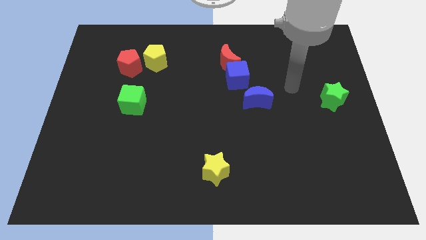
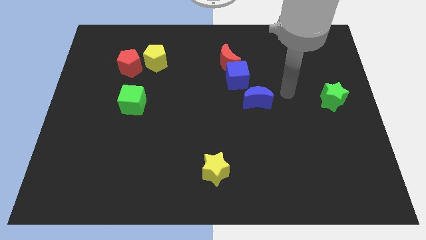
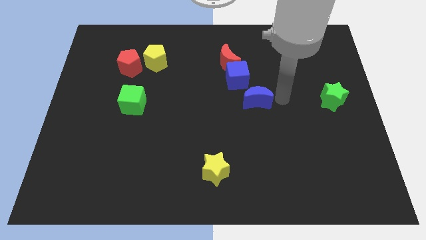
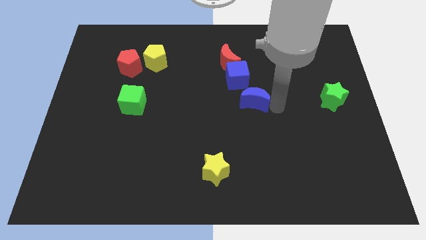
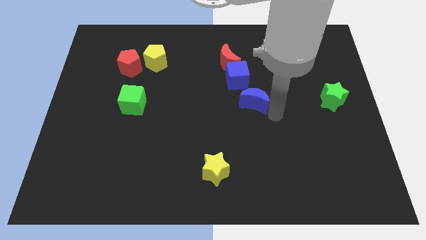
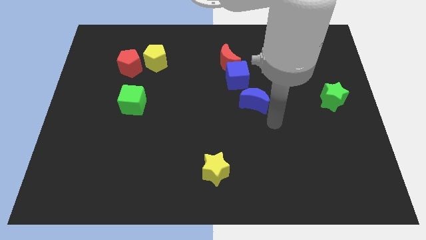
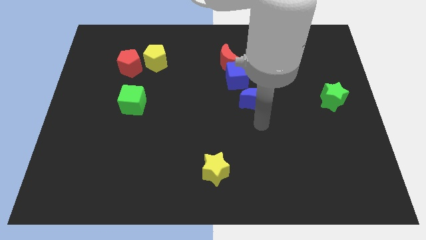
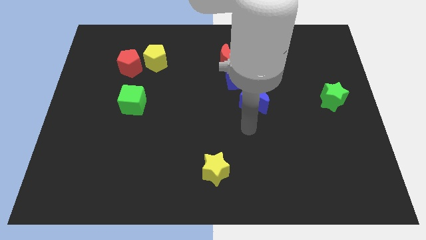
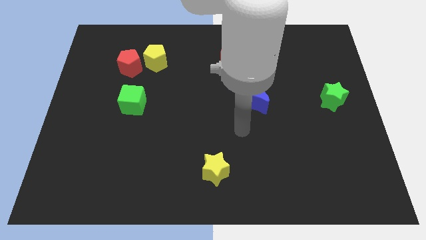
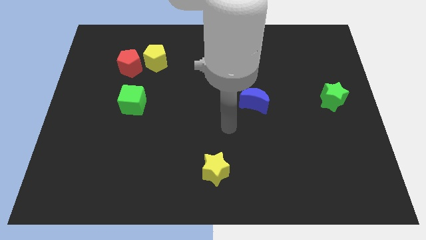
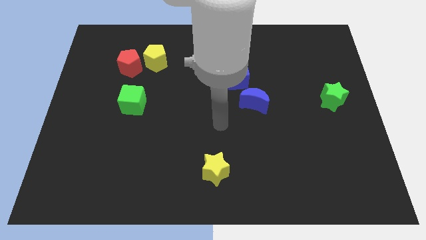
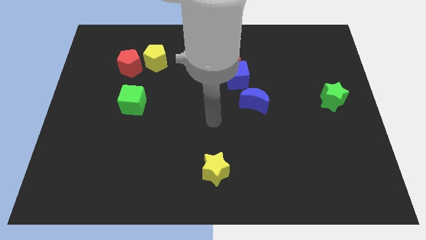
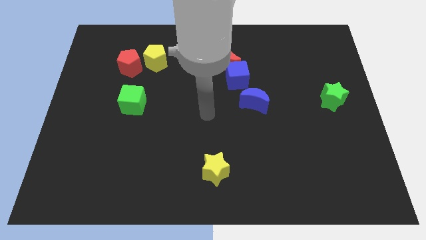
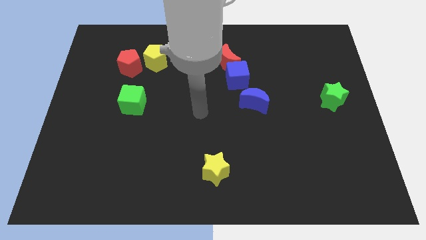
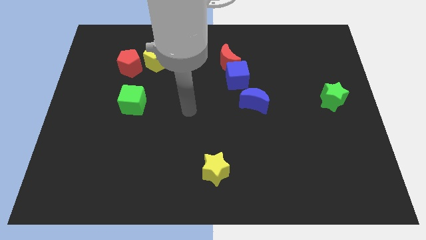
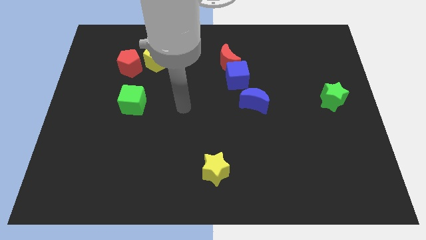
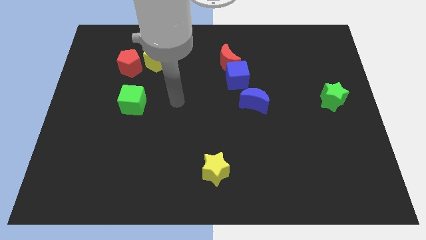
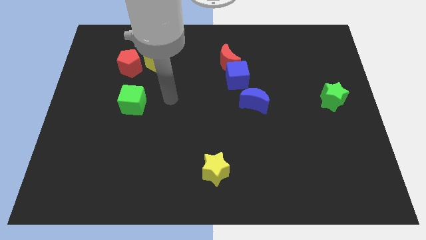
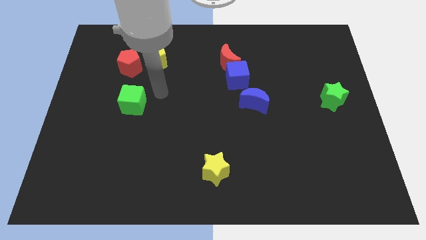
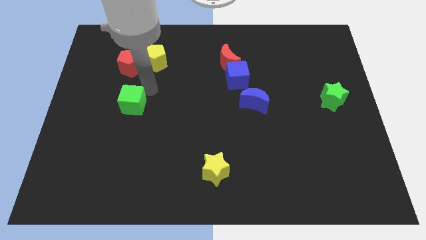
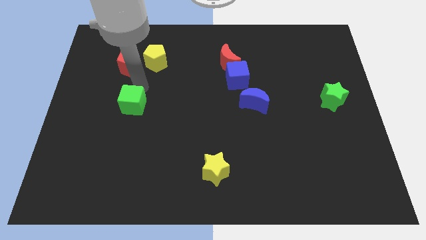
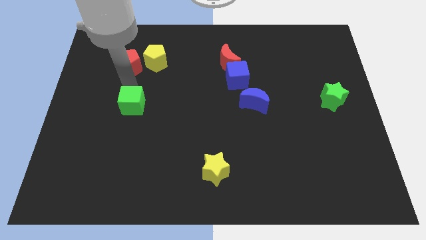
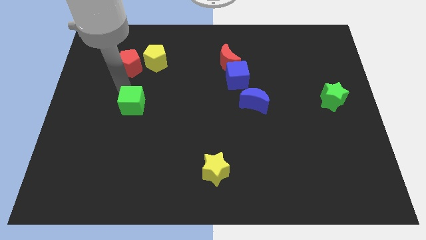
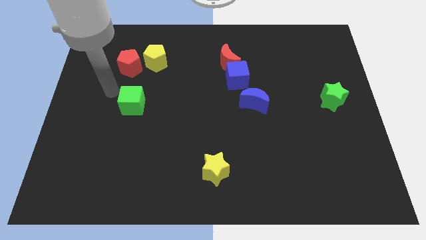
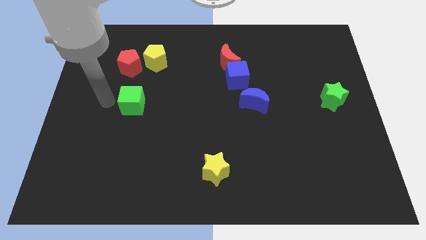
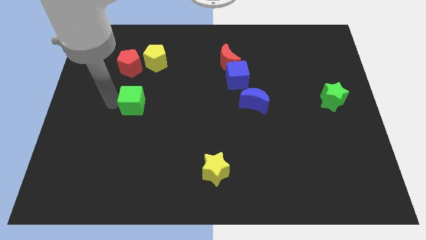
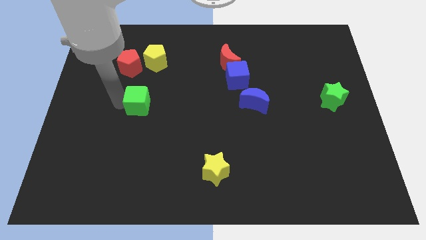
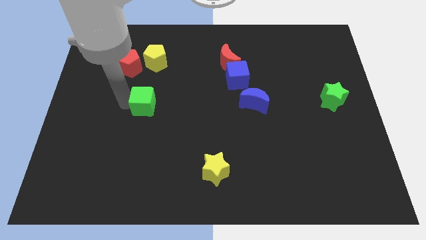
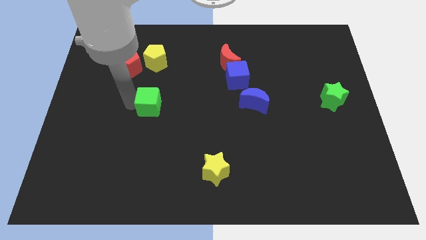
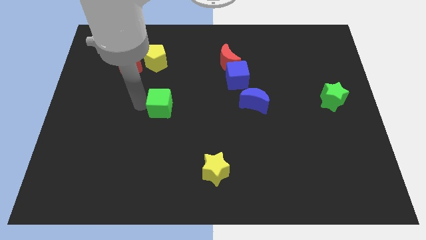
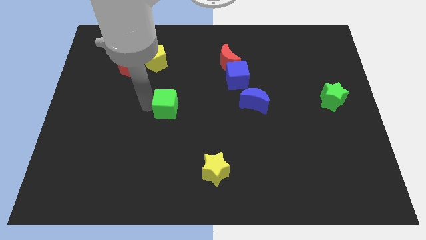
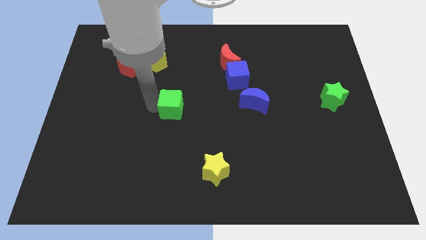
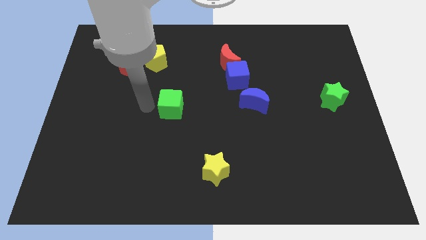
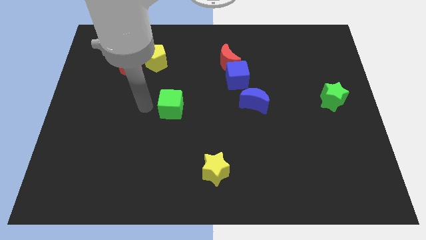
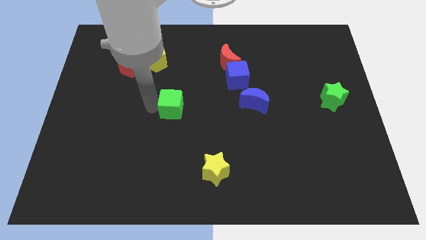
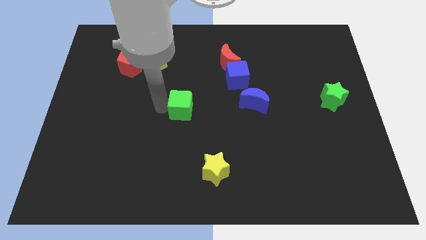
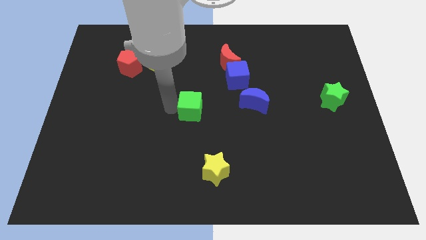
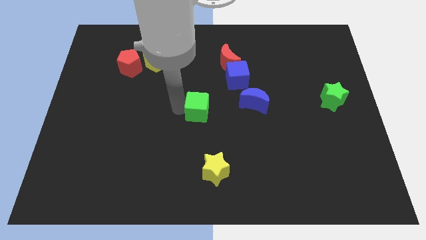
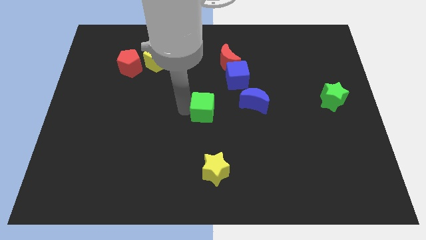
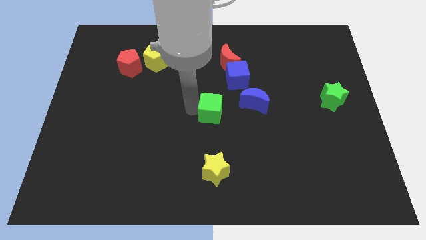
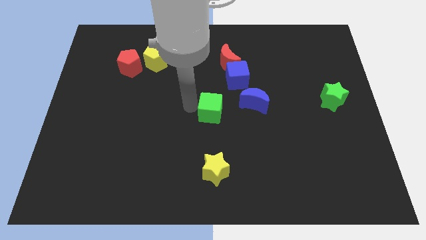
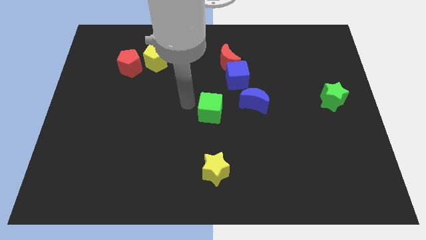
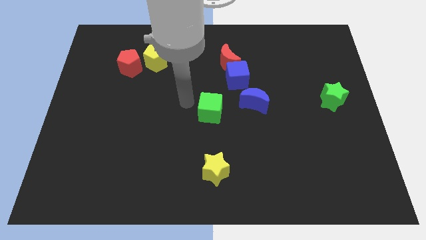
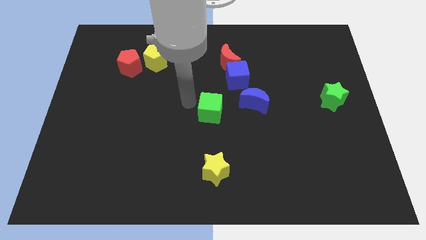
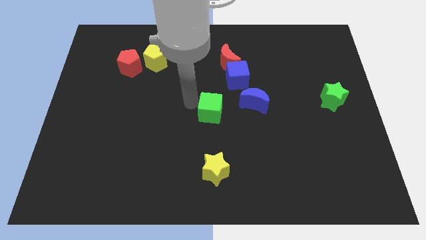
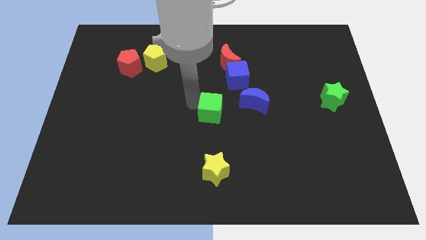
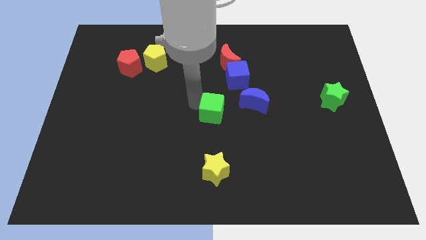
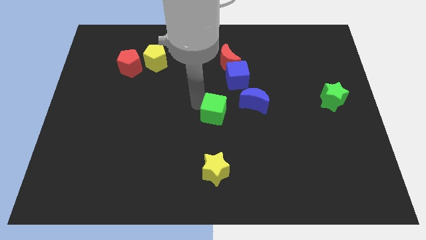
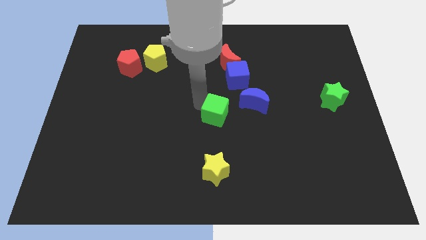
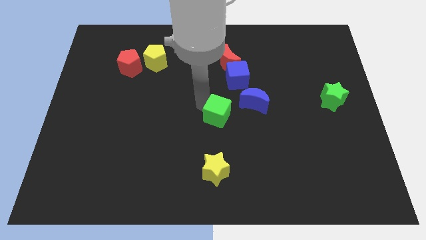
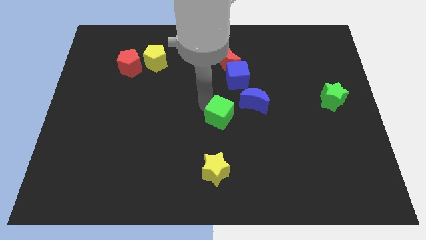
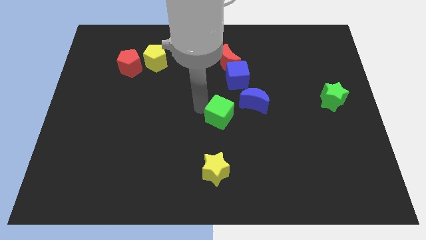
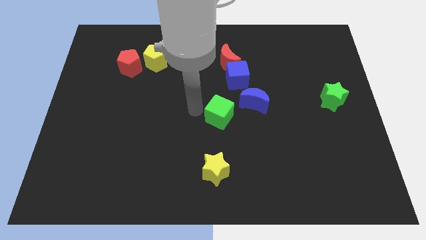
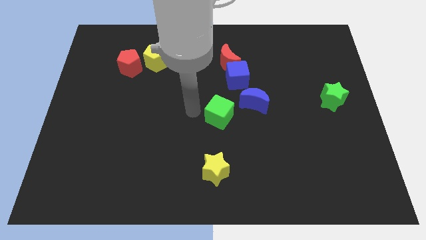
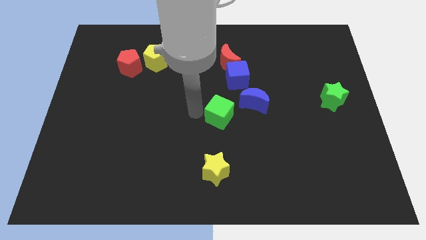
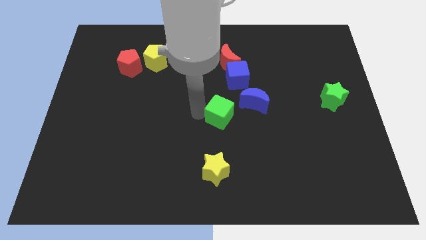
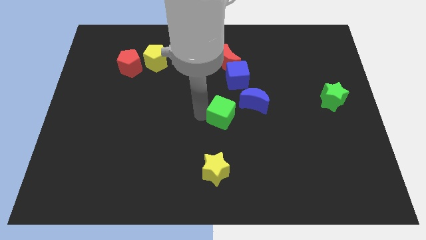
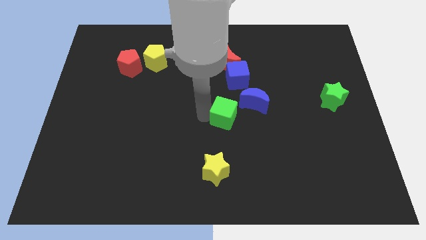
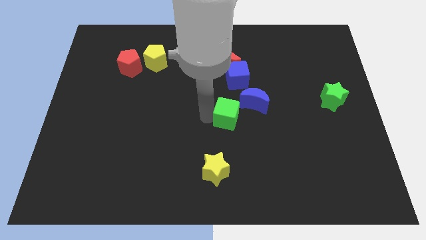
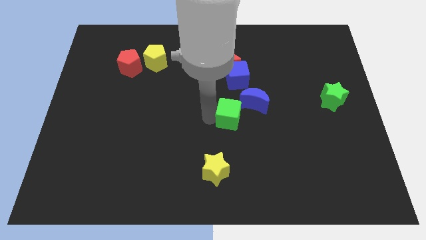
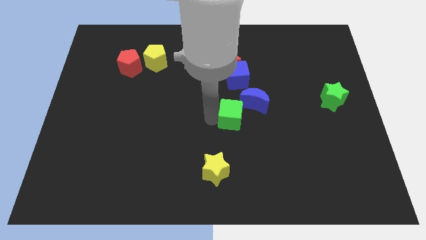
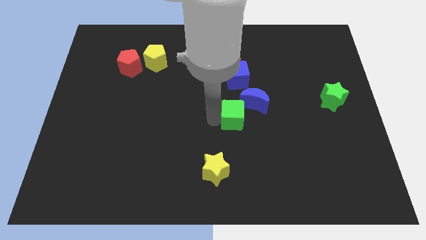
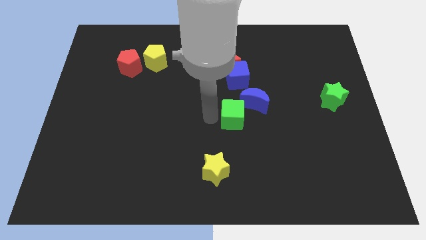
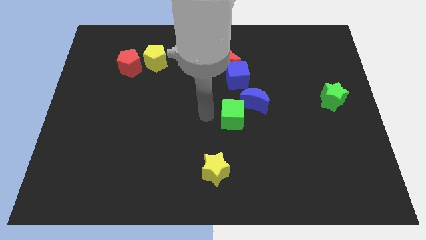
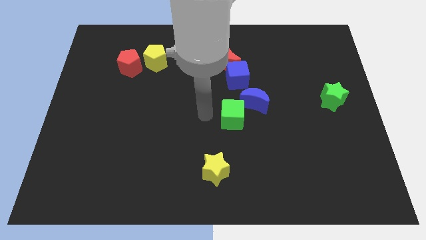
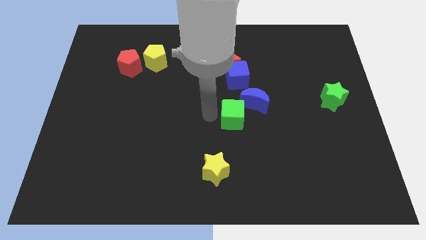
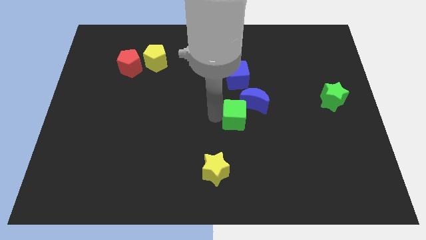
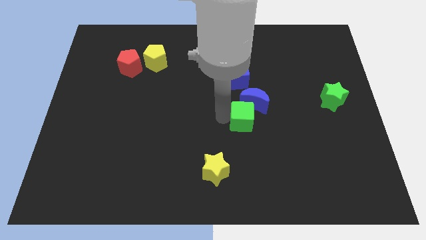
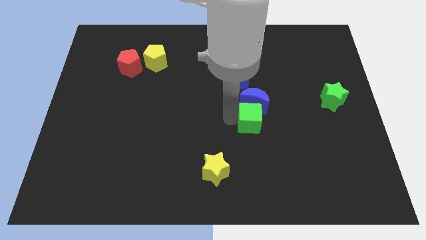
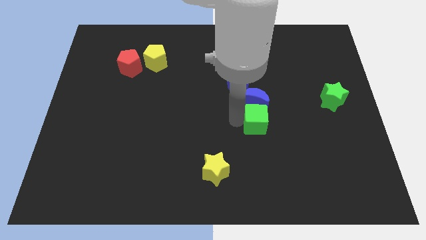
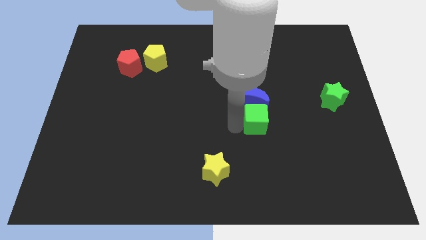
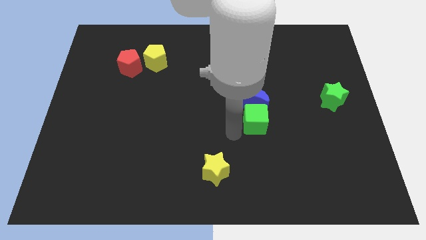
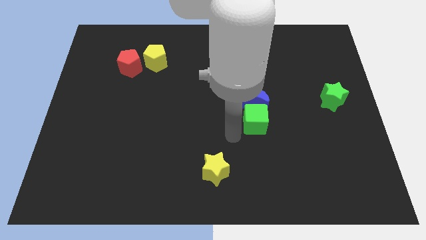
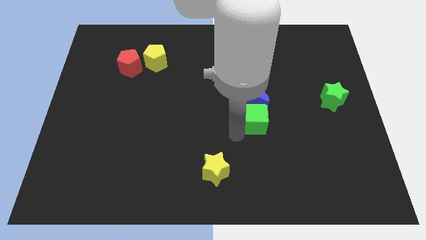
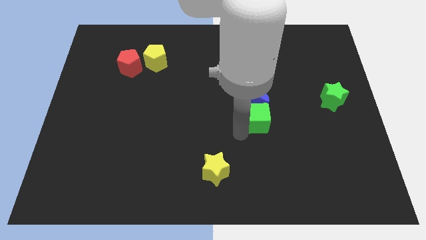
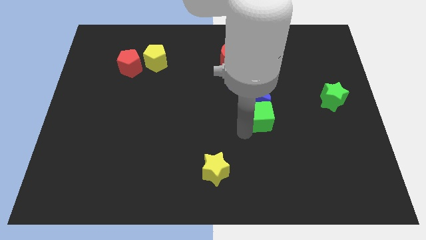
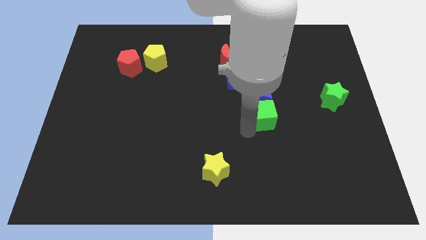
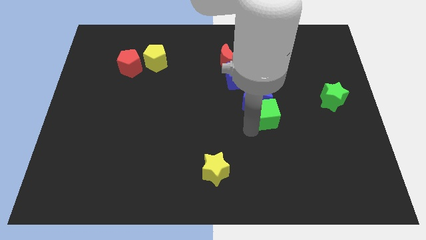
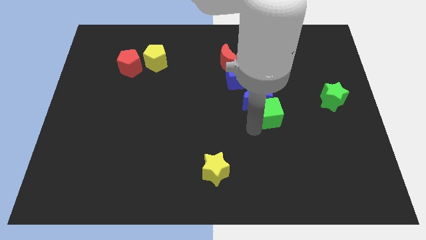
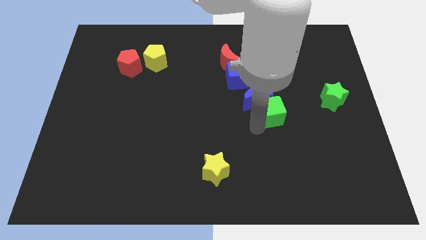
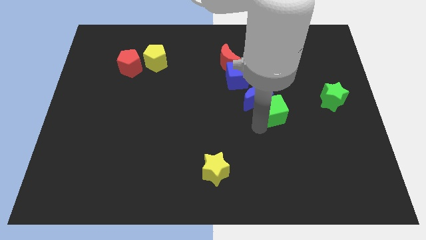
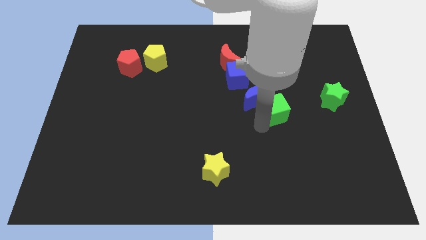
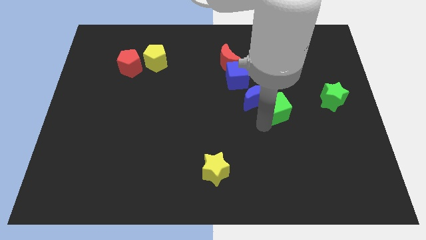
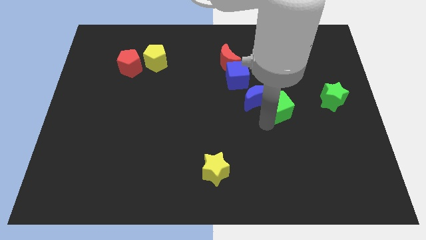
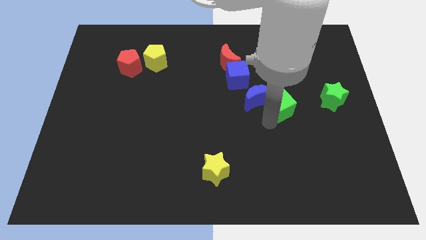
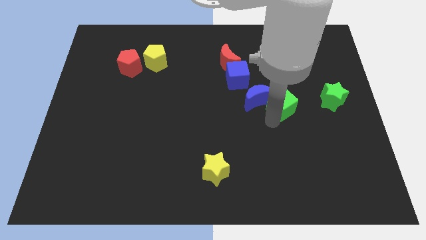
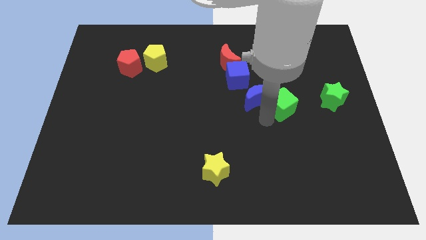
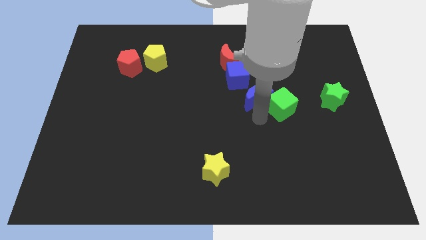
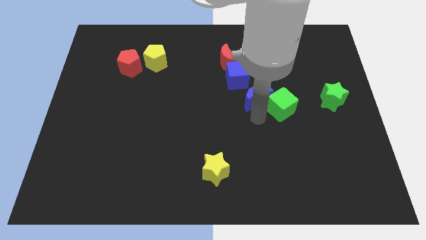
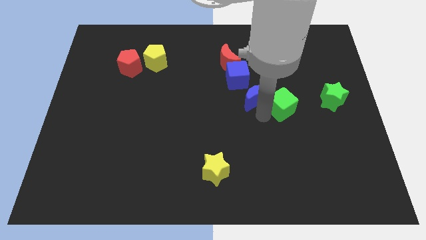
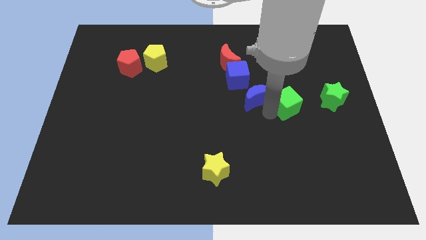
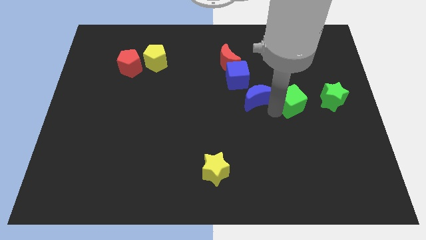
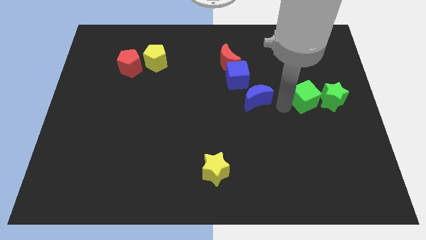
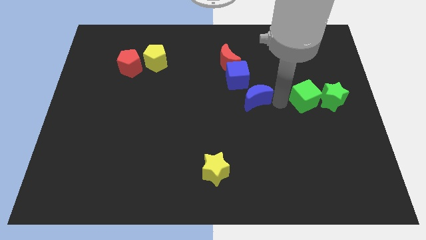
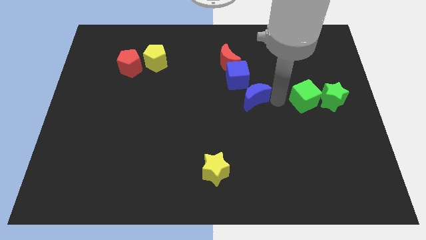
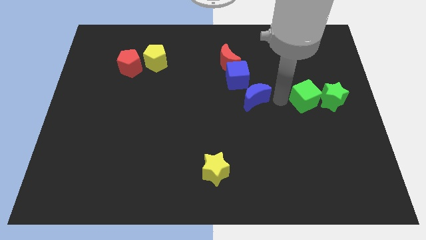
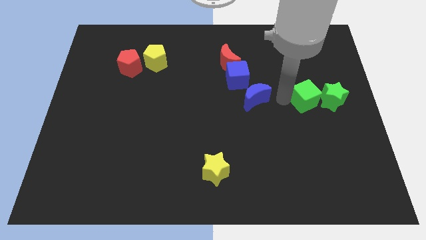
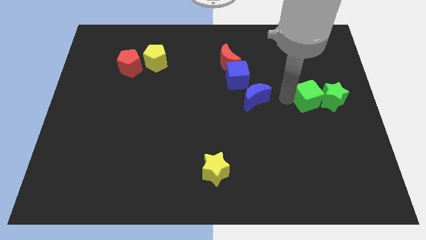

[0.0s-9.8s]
move the green cube close to the green star
